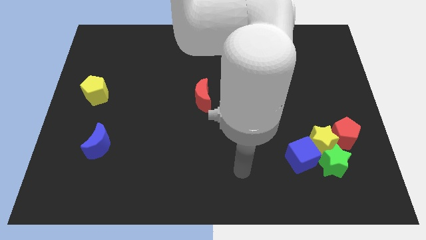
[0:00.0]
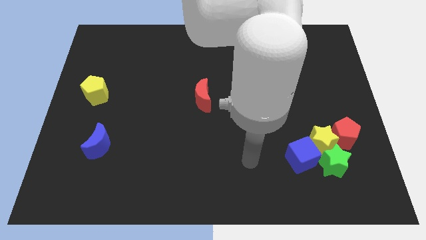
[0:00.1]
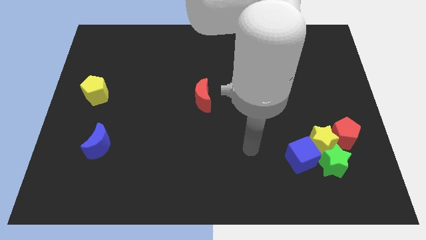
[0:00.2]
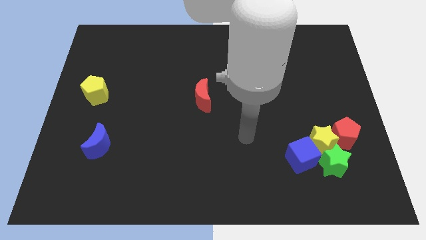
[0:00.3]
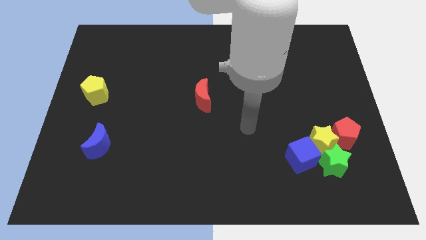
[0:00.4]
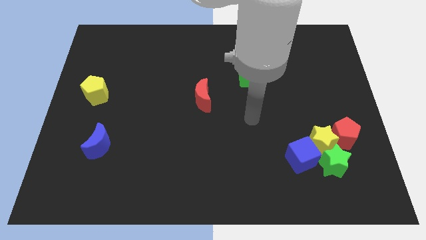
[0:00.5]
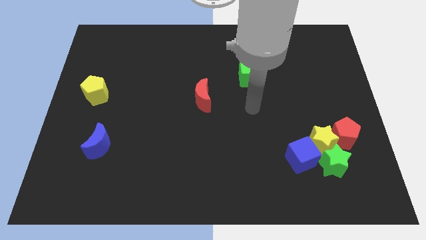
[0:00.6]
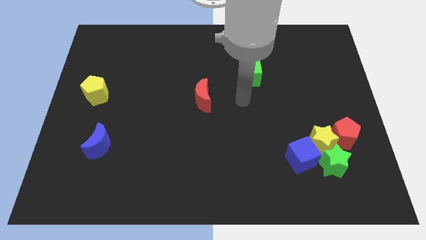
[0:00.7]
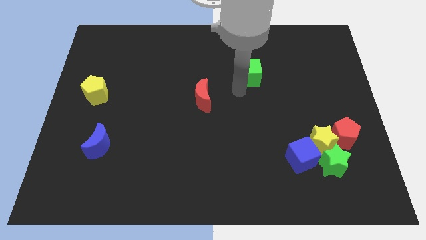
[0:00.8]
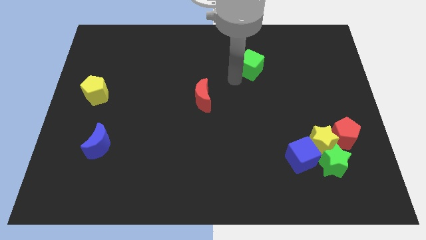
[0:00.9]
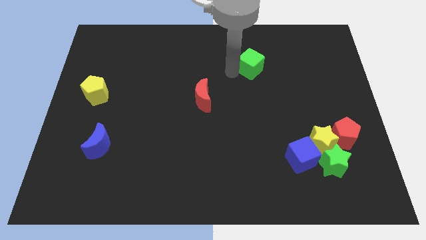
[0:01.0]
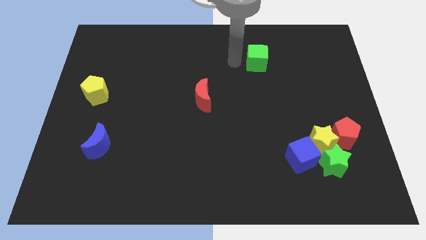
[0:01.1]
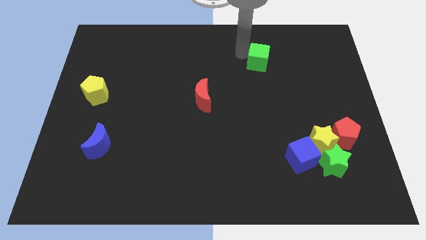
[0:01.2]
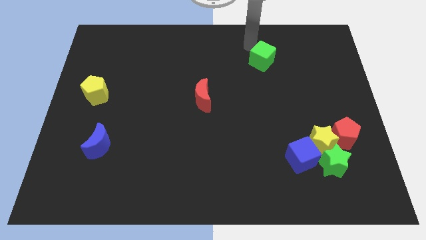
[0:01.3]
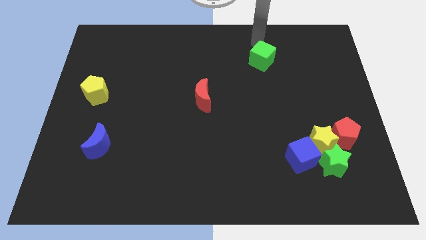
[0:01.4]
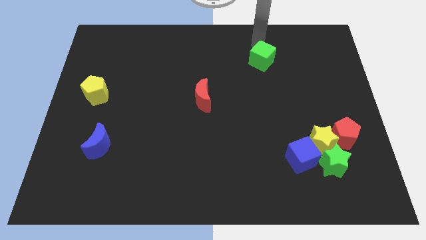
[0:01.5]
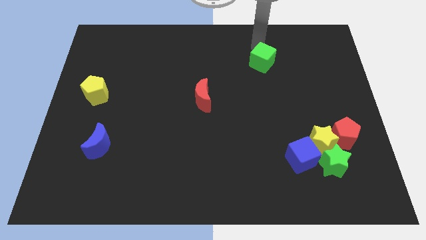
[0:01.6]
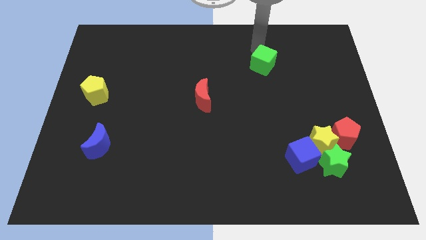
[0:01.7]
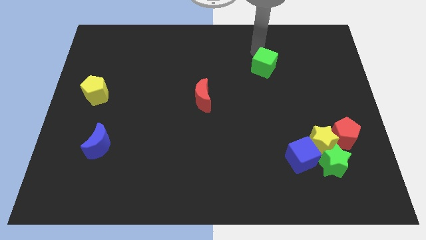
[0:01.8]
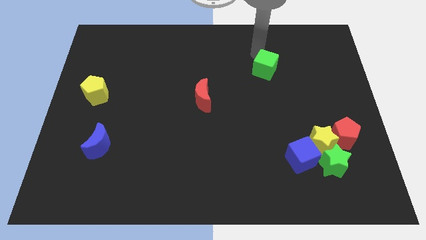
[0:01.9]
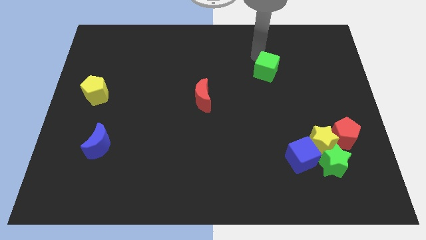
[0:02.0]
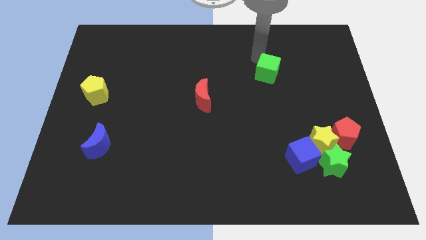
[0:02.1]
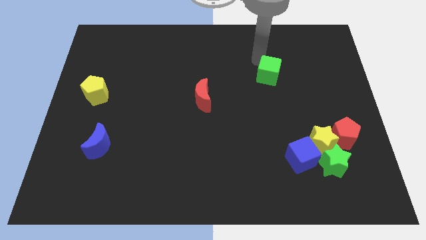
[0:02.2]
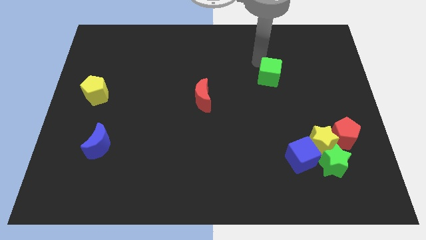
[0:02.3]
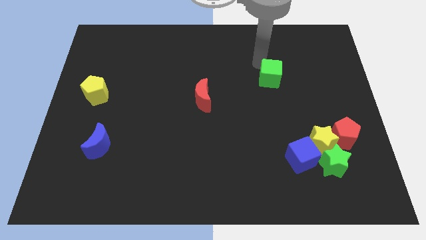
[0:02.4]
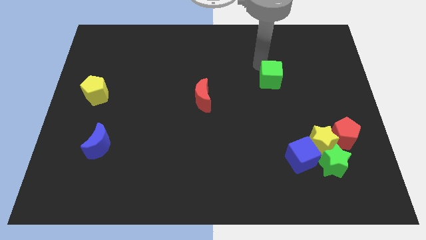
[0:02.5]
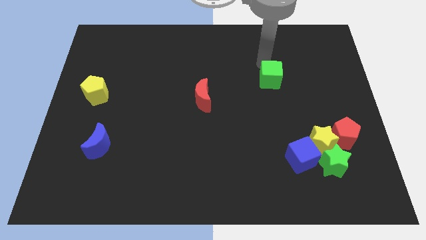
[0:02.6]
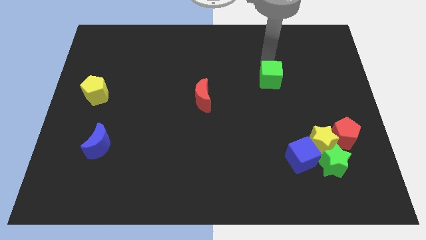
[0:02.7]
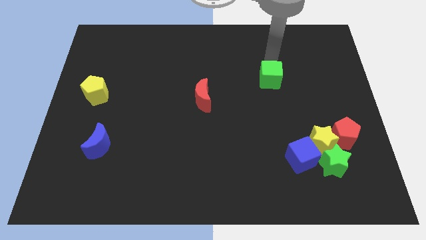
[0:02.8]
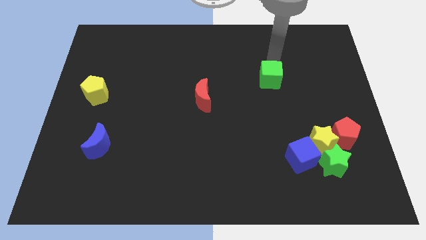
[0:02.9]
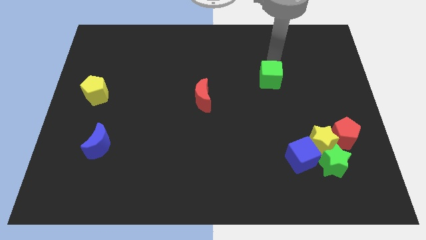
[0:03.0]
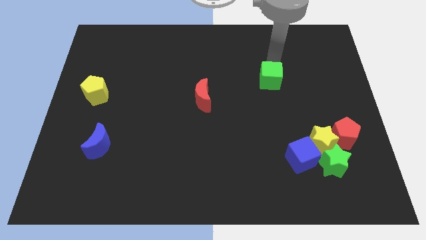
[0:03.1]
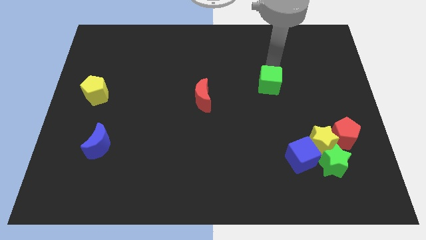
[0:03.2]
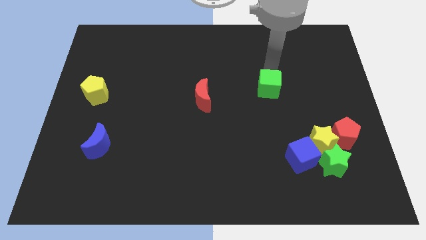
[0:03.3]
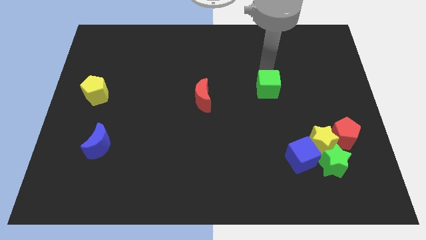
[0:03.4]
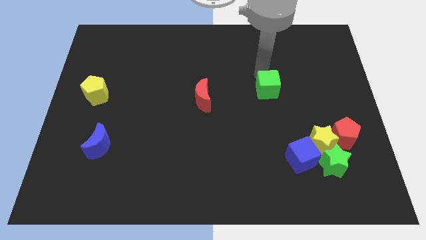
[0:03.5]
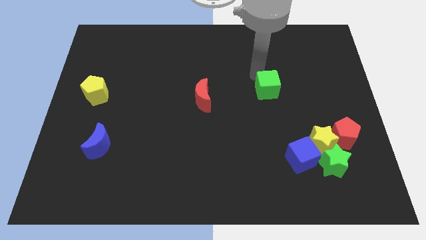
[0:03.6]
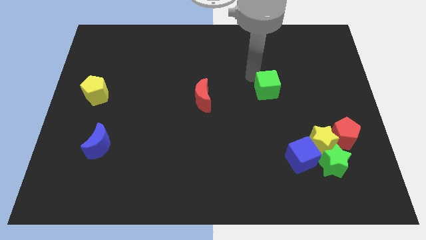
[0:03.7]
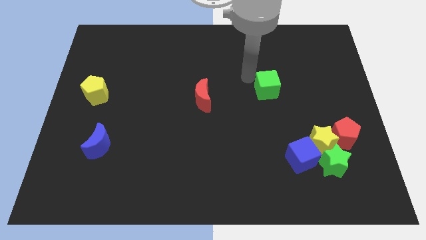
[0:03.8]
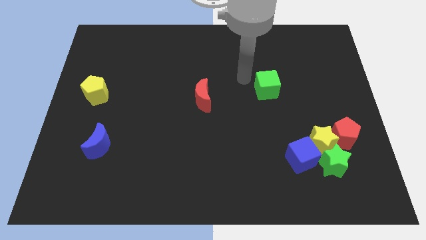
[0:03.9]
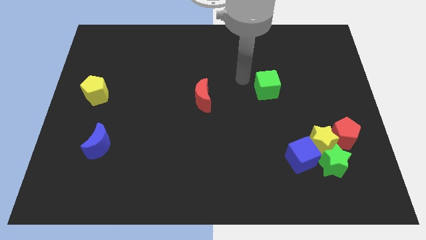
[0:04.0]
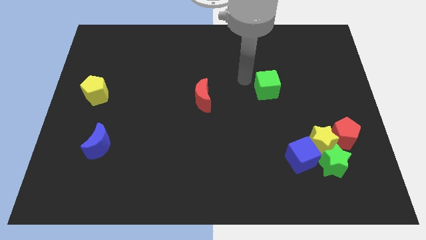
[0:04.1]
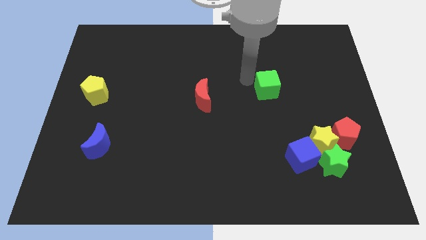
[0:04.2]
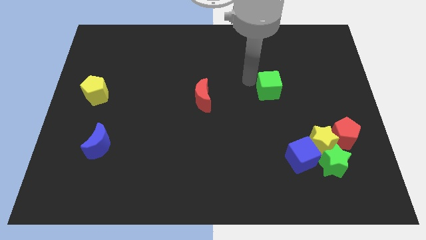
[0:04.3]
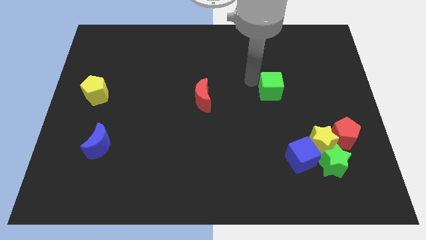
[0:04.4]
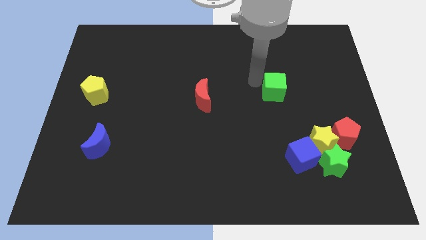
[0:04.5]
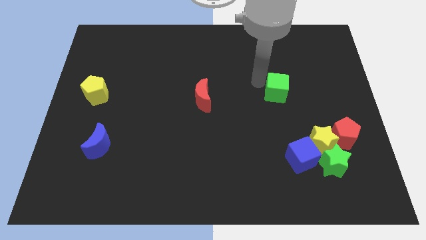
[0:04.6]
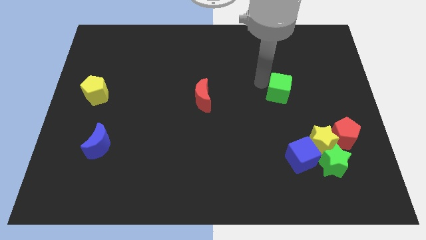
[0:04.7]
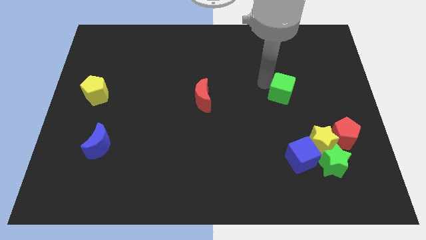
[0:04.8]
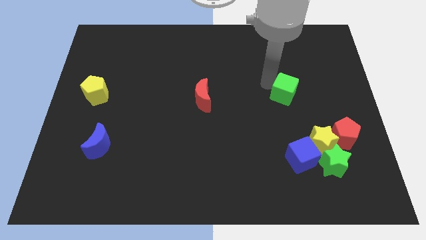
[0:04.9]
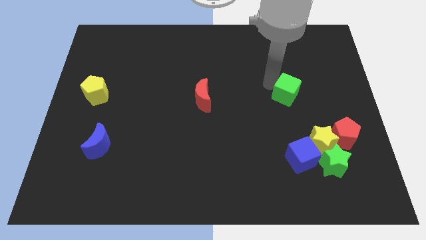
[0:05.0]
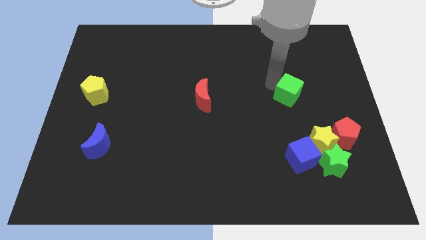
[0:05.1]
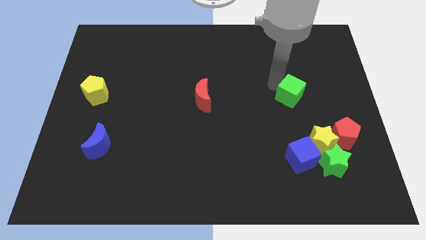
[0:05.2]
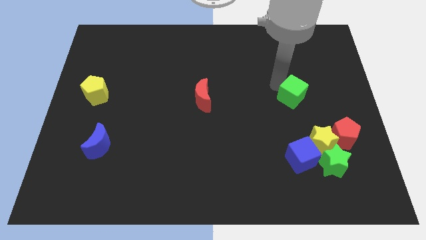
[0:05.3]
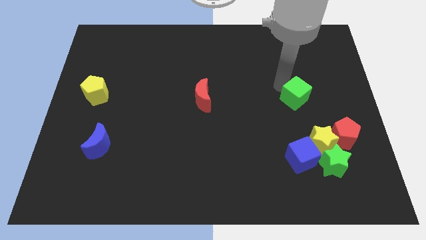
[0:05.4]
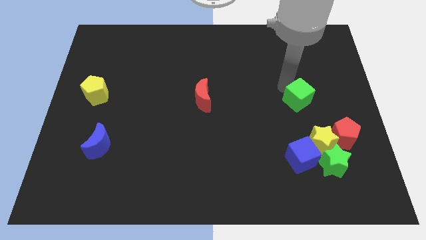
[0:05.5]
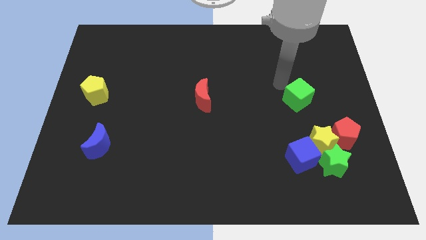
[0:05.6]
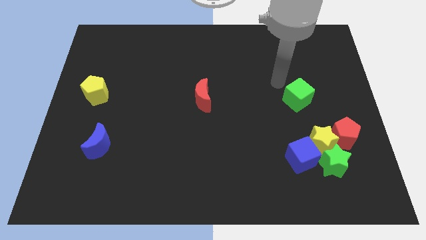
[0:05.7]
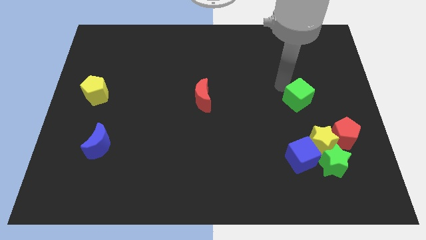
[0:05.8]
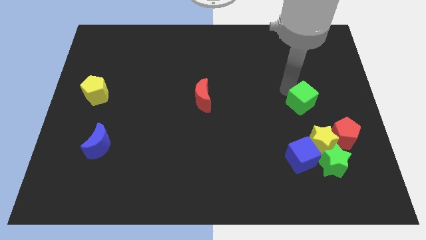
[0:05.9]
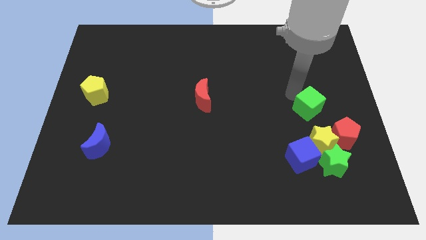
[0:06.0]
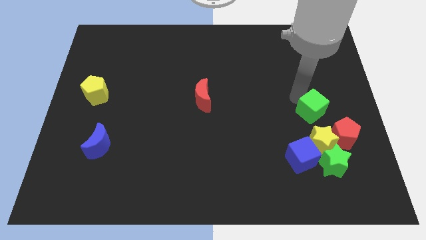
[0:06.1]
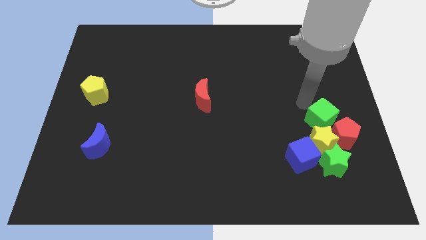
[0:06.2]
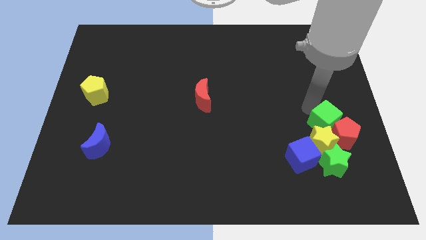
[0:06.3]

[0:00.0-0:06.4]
move the green cube to the red pentagon

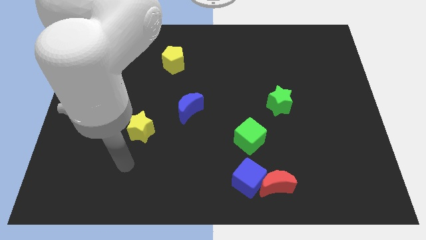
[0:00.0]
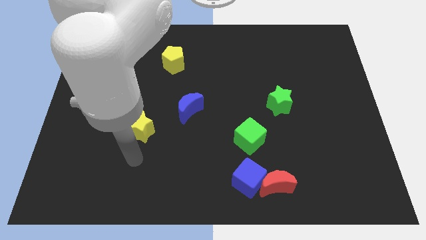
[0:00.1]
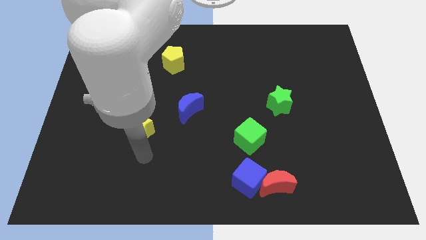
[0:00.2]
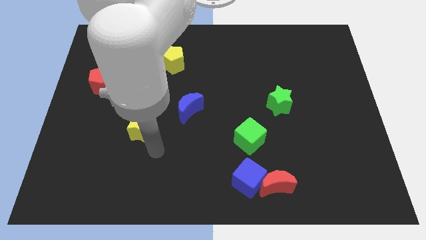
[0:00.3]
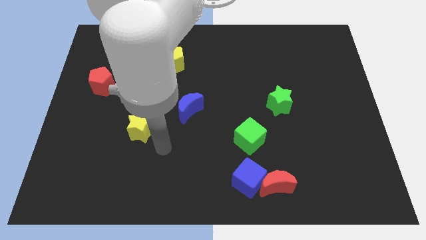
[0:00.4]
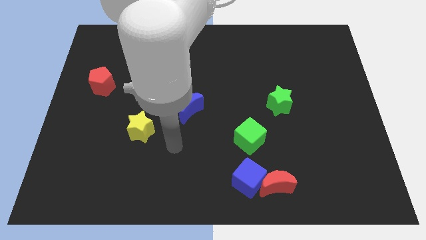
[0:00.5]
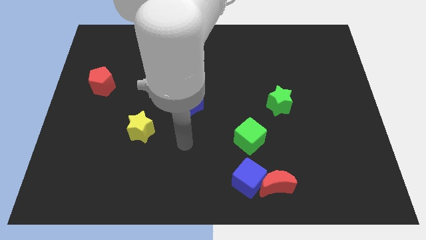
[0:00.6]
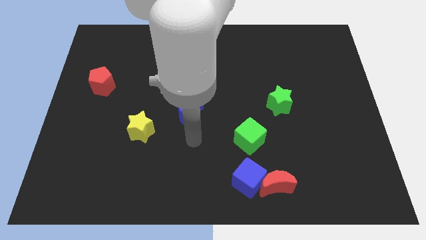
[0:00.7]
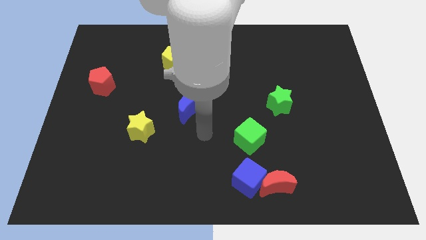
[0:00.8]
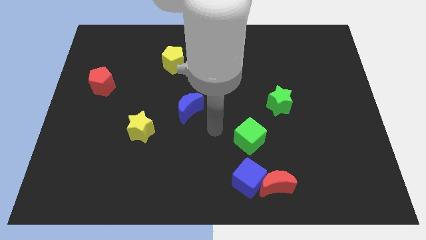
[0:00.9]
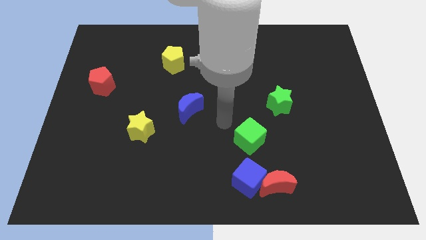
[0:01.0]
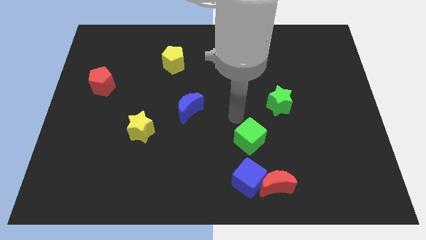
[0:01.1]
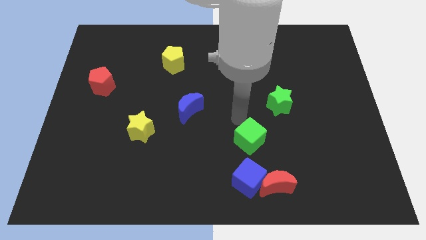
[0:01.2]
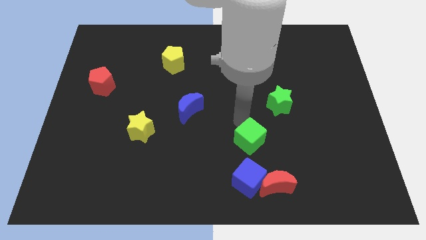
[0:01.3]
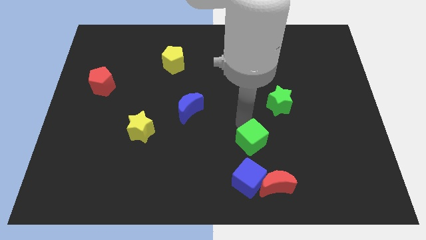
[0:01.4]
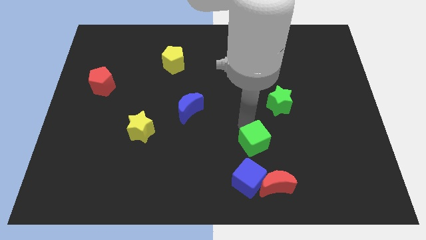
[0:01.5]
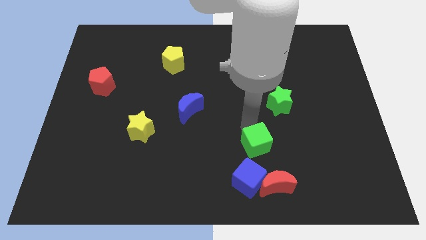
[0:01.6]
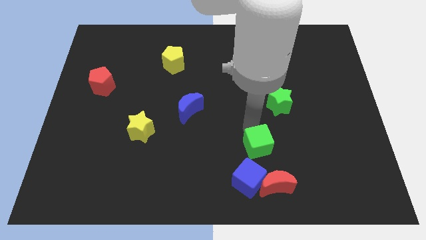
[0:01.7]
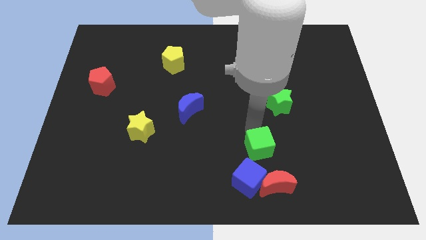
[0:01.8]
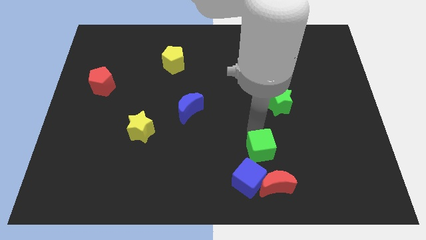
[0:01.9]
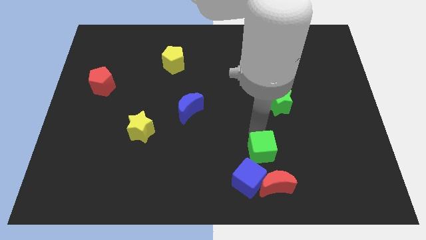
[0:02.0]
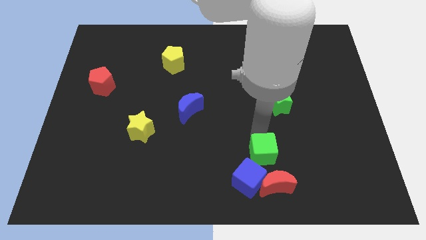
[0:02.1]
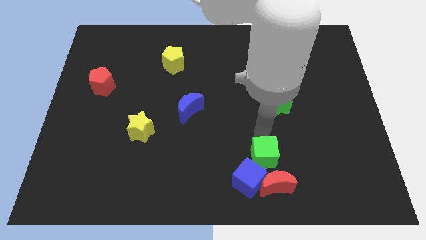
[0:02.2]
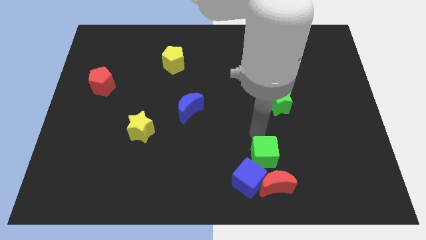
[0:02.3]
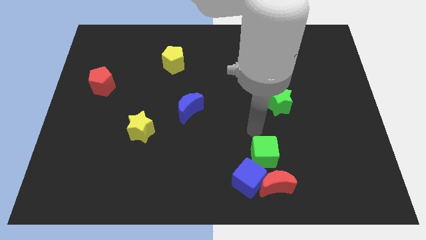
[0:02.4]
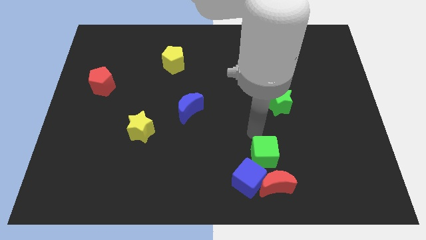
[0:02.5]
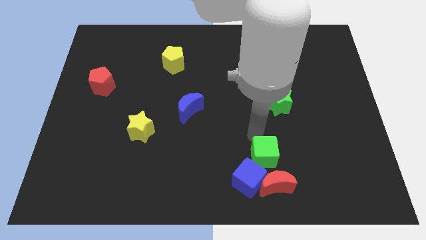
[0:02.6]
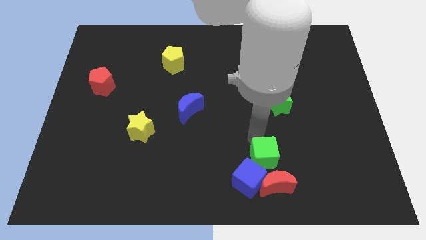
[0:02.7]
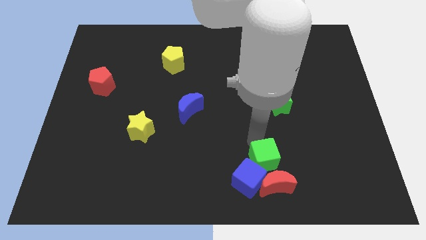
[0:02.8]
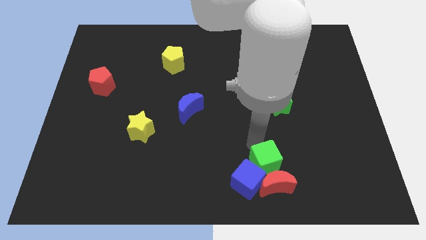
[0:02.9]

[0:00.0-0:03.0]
put the green cube next to the red moon
